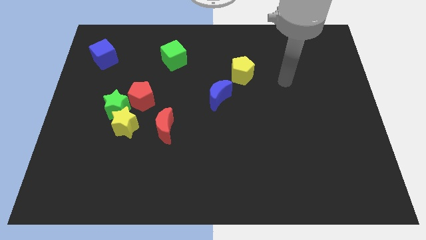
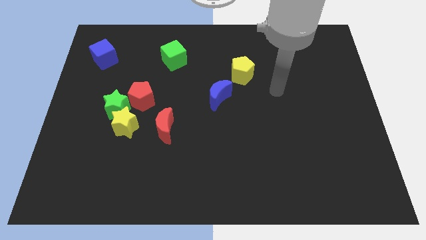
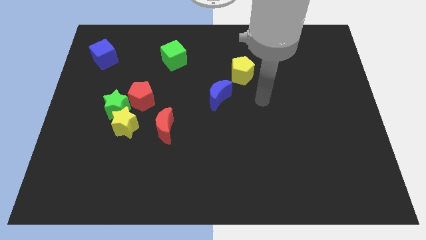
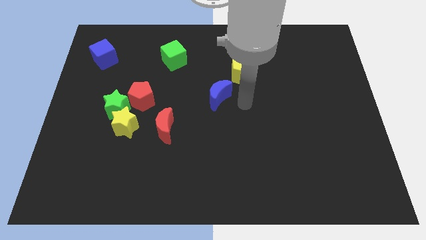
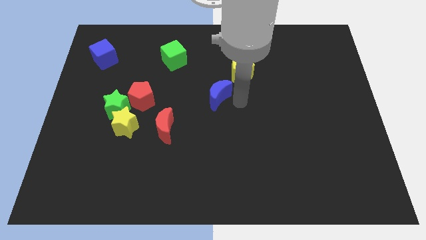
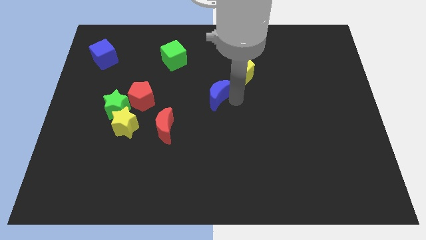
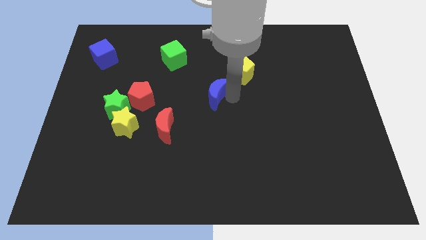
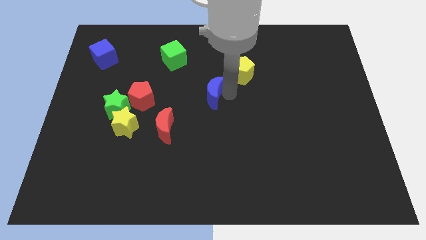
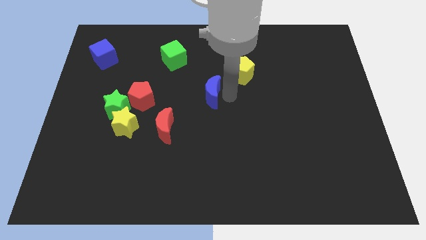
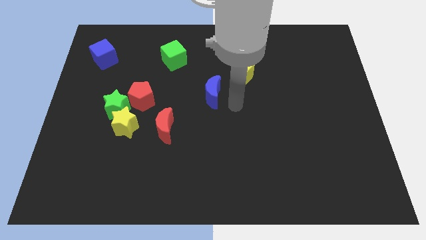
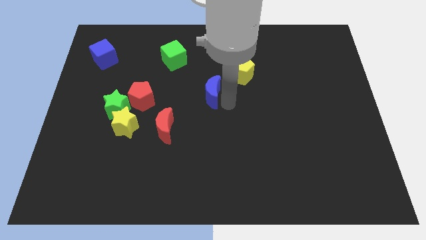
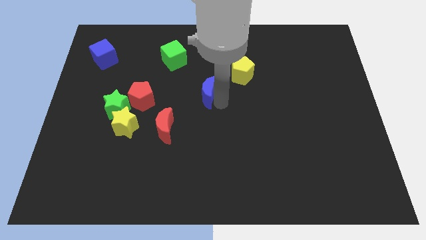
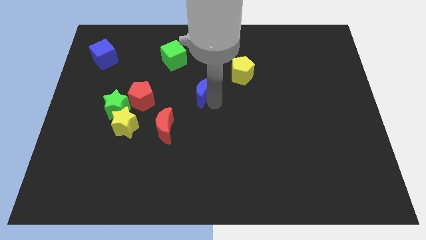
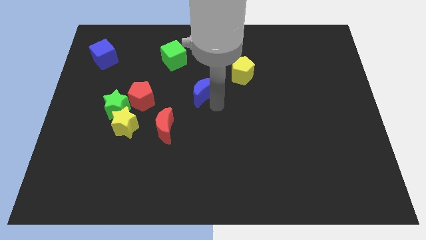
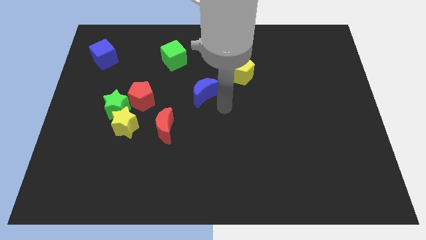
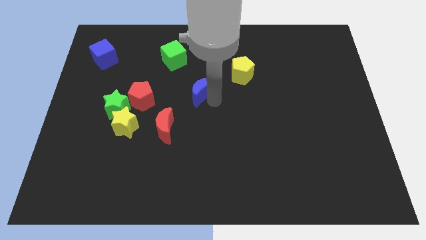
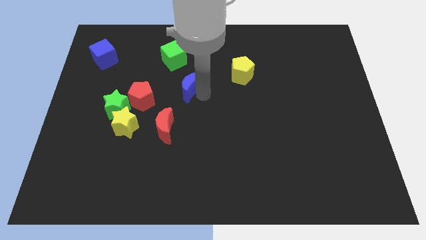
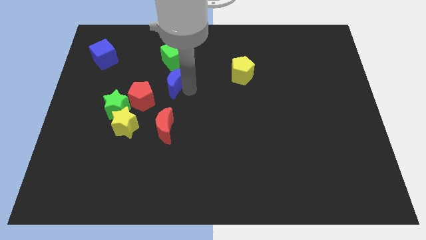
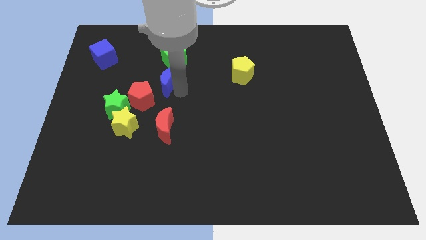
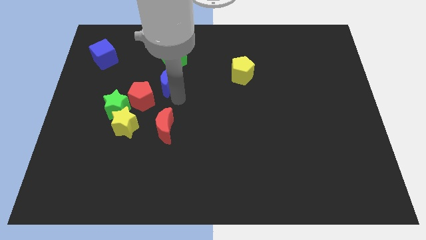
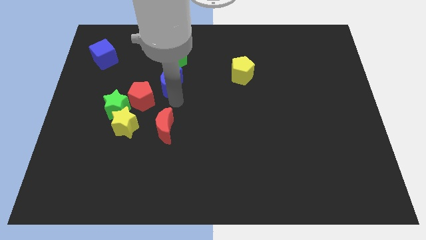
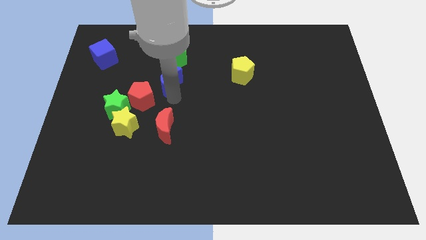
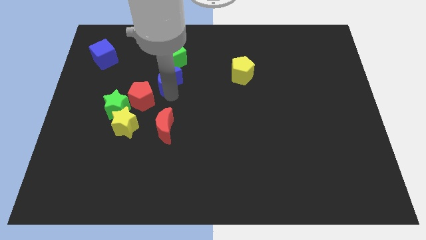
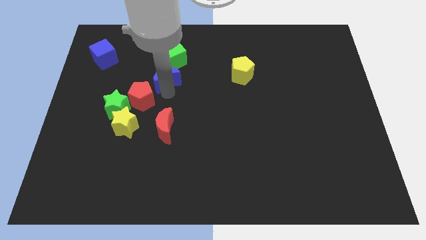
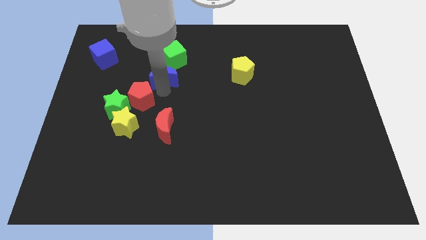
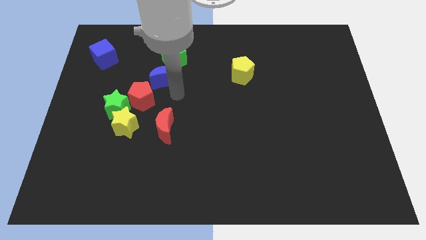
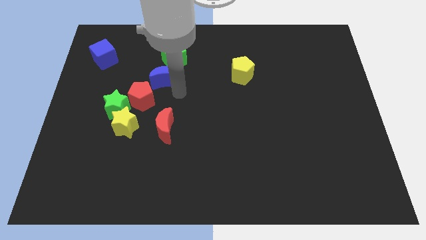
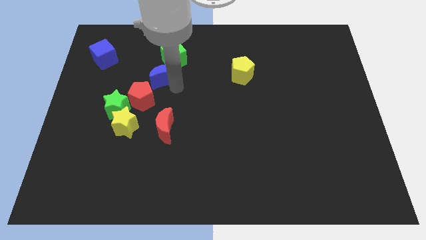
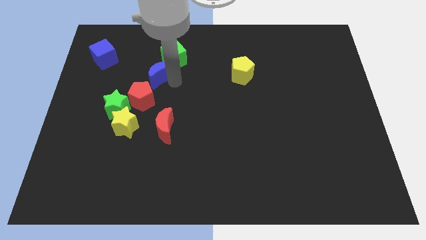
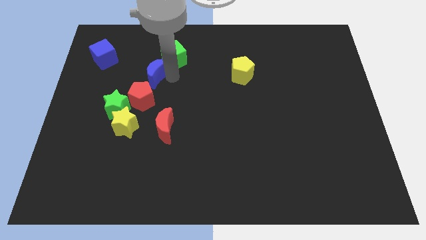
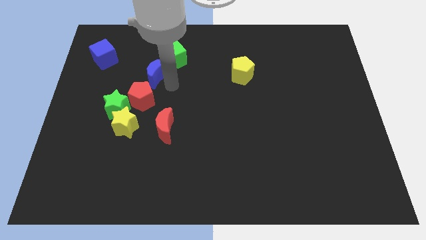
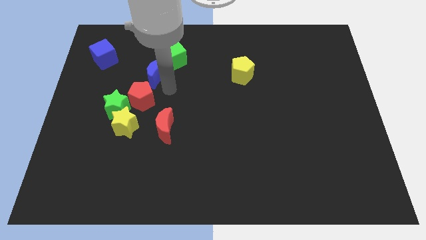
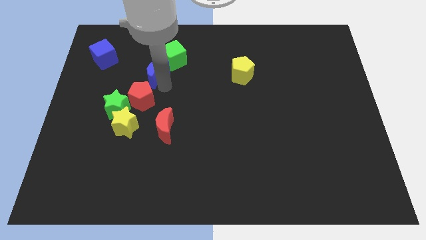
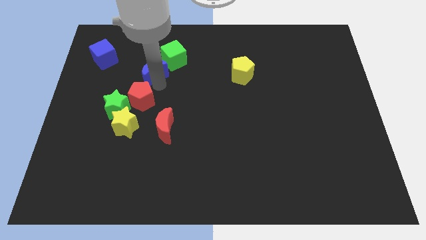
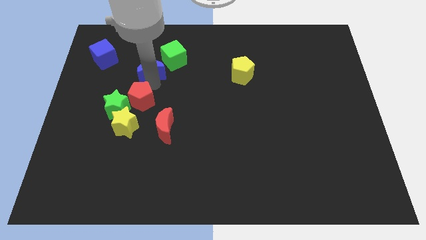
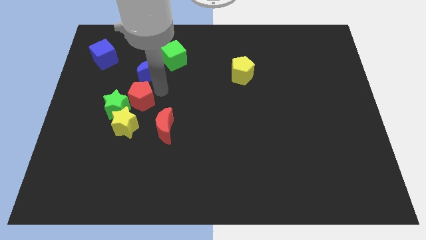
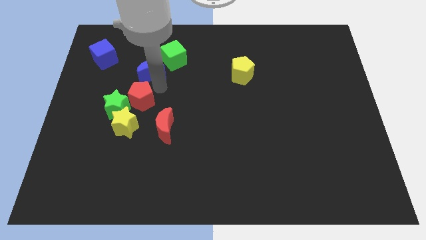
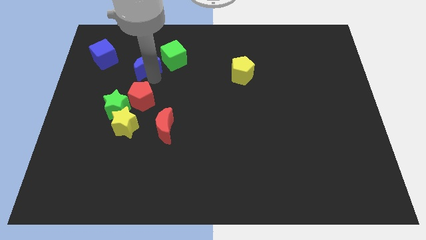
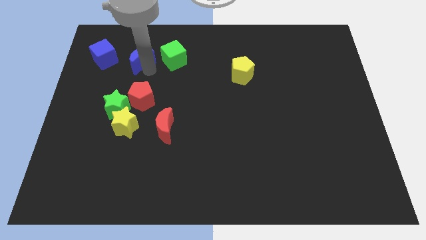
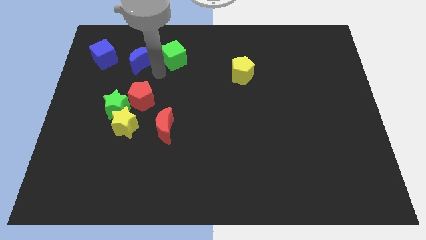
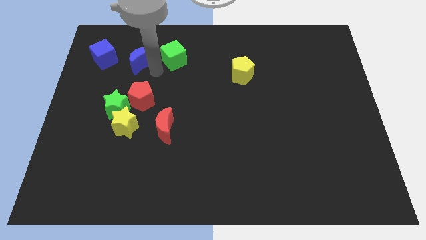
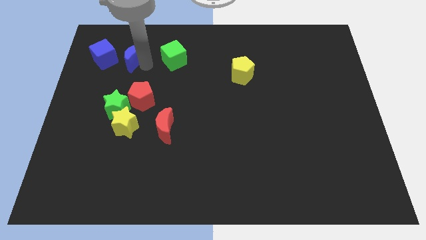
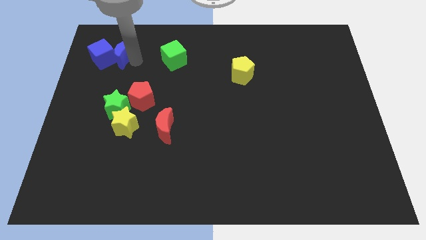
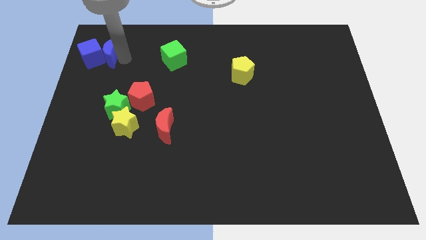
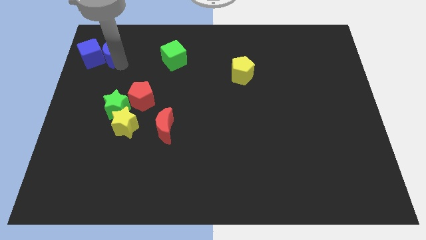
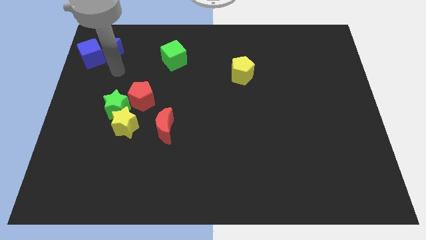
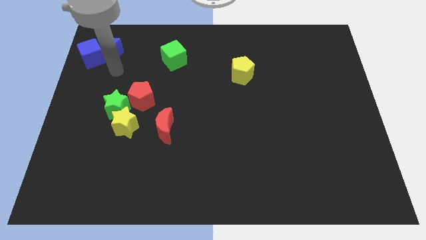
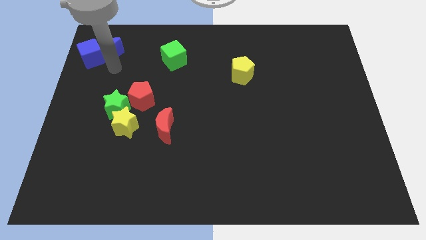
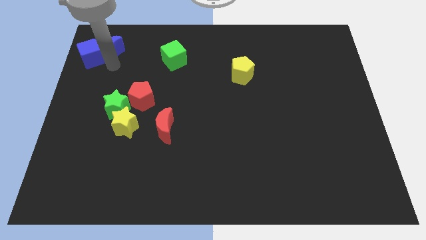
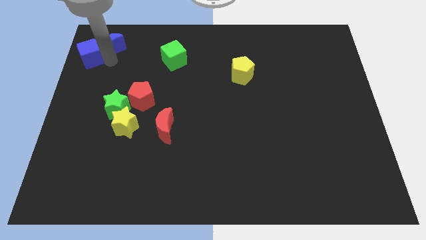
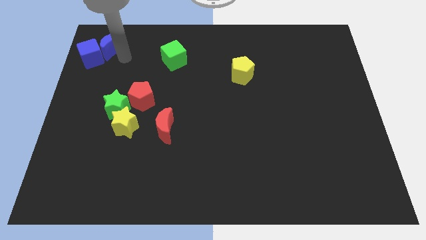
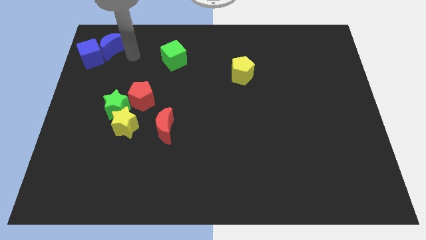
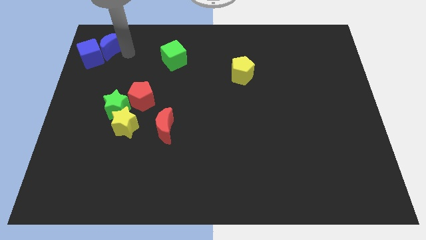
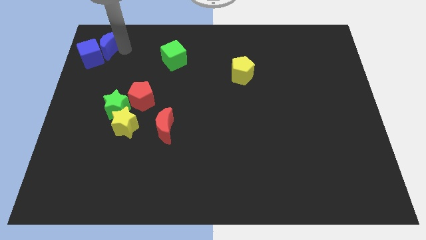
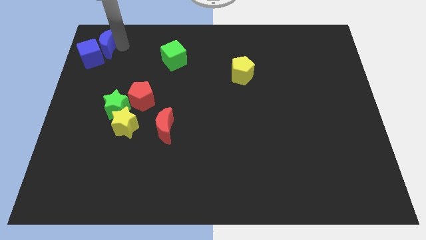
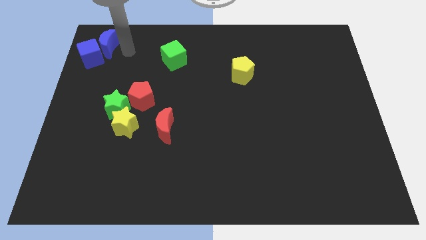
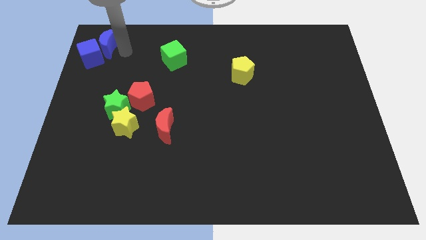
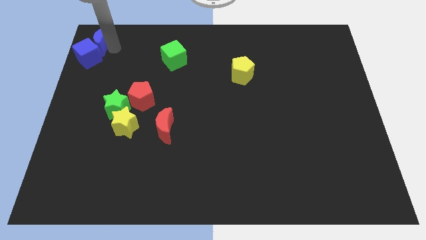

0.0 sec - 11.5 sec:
put the blue moon to the top left of the board

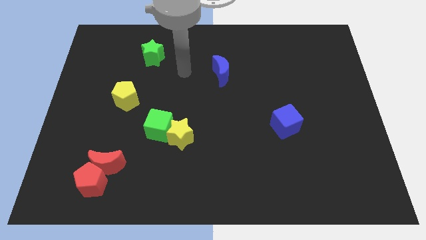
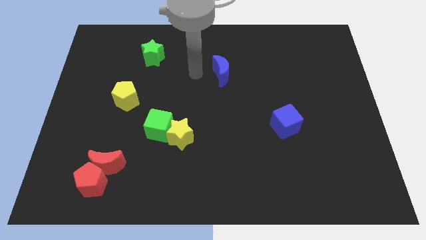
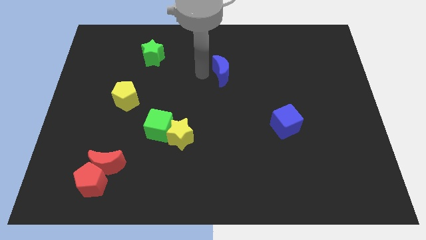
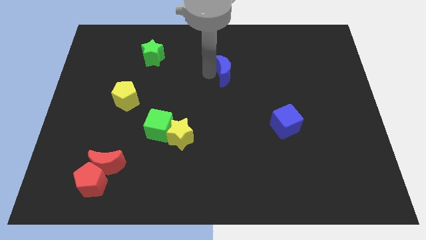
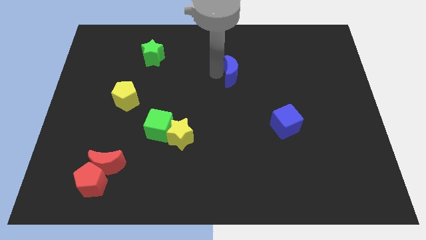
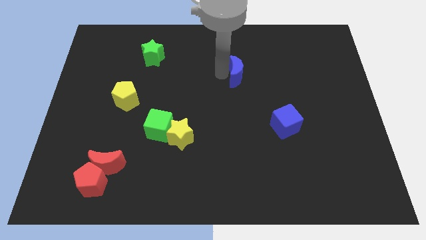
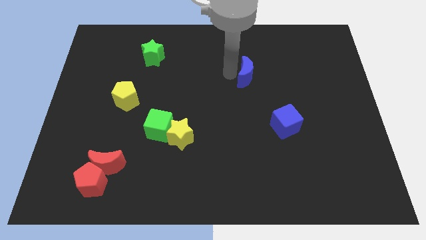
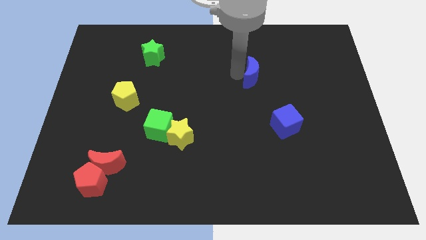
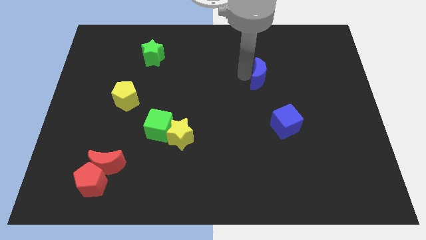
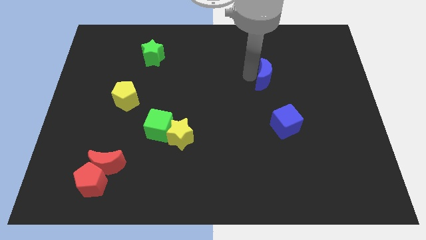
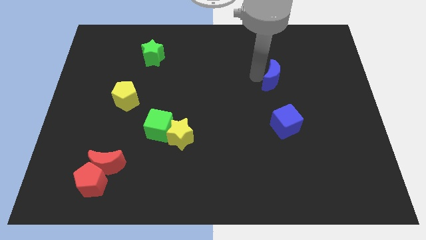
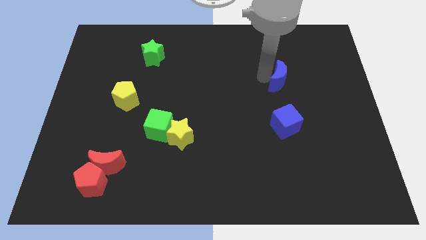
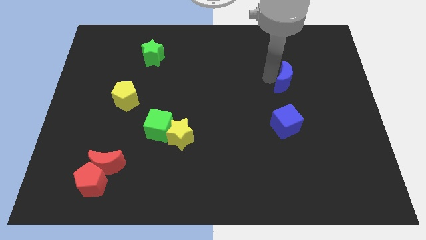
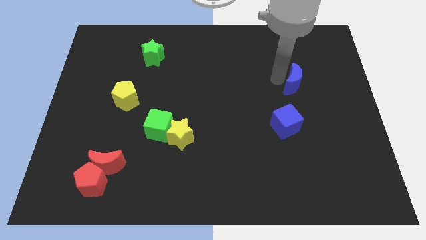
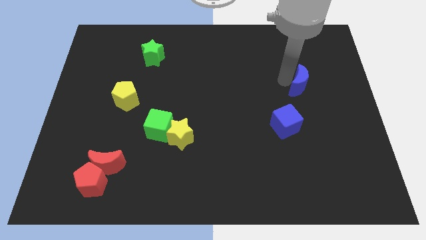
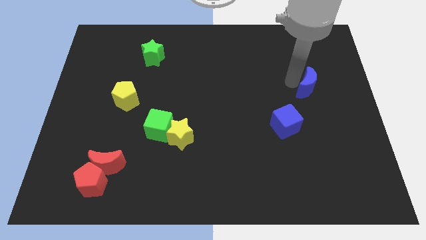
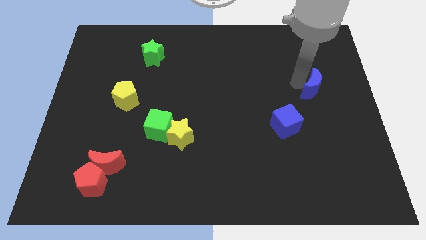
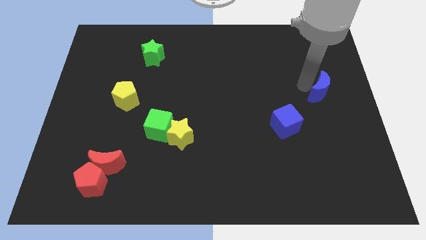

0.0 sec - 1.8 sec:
put the blue moon to the center right
